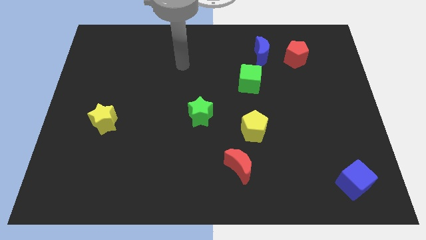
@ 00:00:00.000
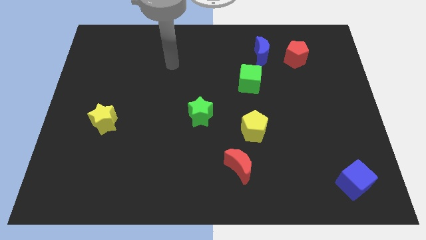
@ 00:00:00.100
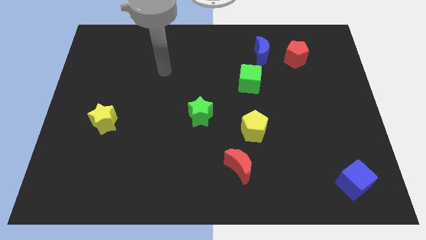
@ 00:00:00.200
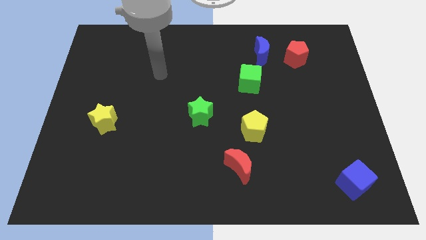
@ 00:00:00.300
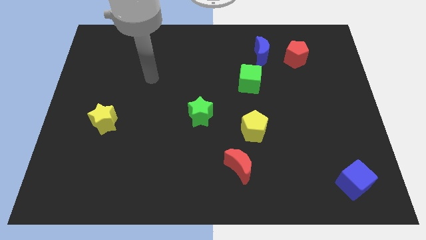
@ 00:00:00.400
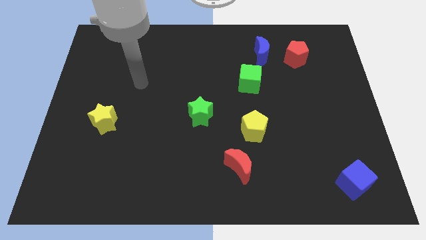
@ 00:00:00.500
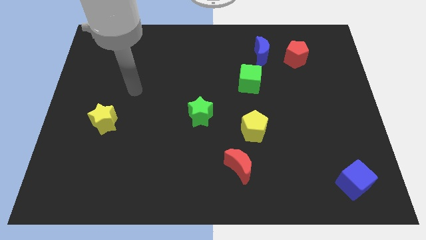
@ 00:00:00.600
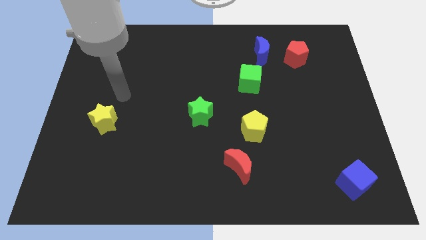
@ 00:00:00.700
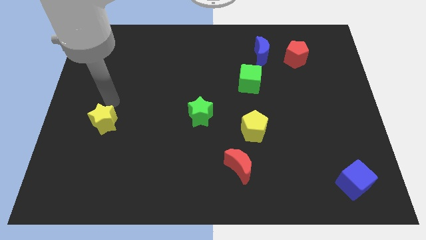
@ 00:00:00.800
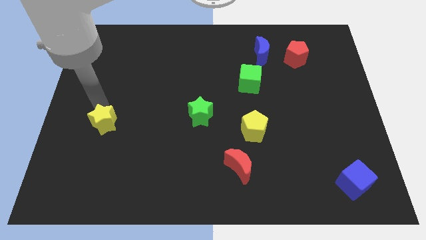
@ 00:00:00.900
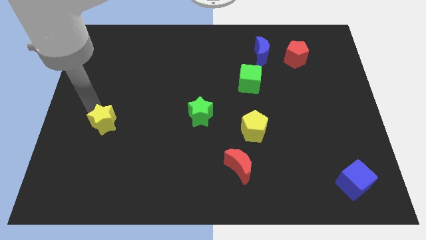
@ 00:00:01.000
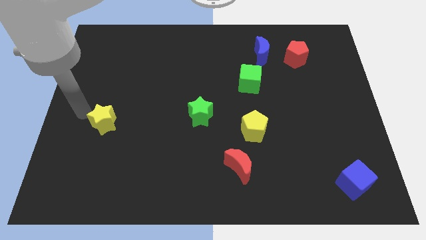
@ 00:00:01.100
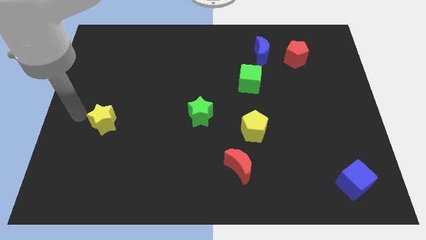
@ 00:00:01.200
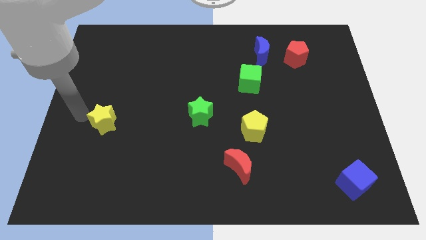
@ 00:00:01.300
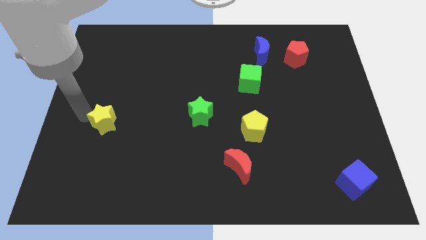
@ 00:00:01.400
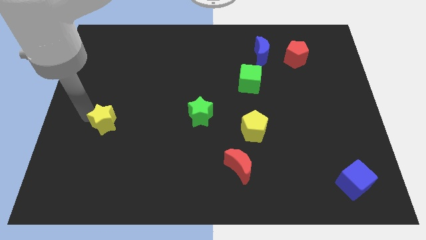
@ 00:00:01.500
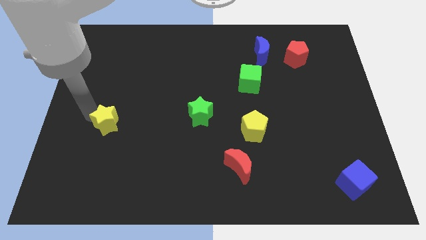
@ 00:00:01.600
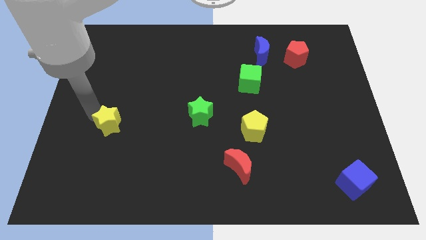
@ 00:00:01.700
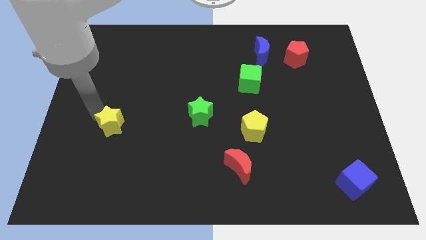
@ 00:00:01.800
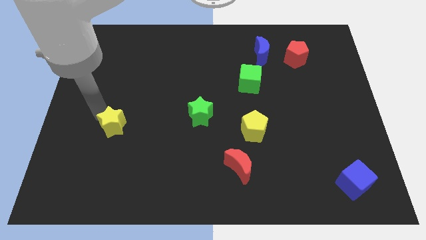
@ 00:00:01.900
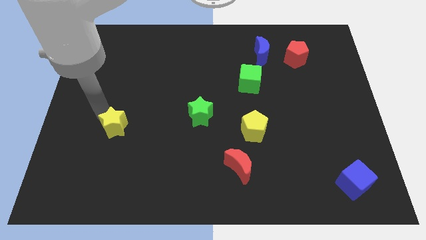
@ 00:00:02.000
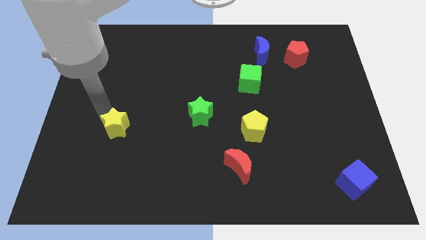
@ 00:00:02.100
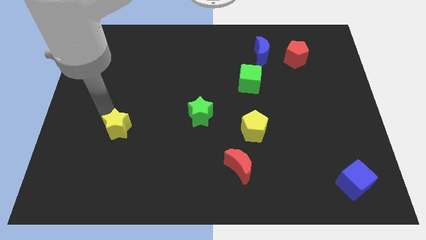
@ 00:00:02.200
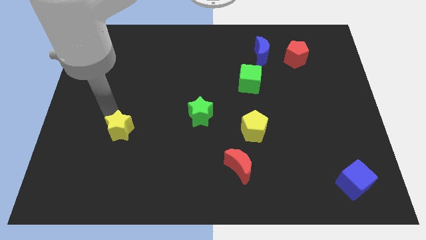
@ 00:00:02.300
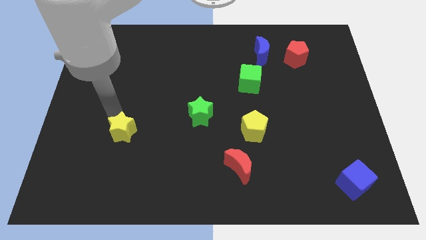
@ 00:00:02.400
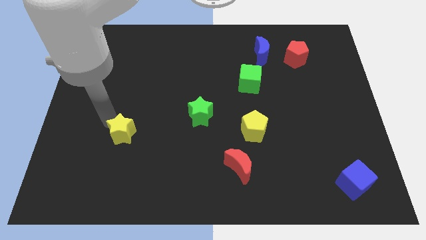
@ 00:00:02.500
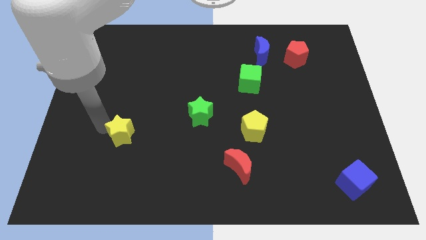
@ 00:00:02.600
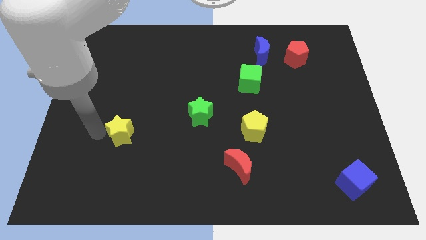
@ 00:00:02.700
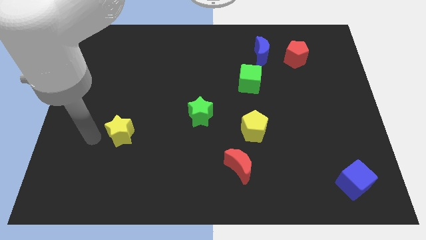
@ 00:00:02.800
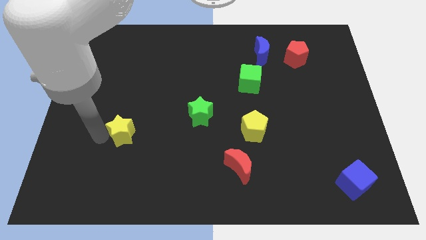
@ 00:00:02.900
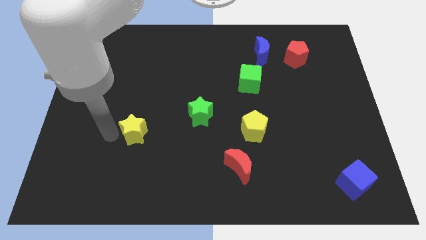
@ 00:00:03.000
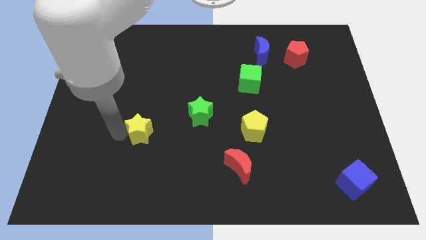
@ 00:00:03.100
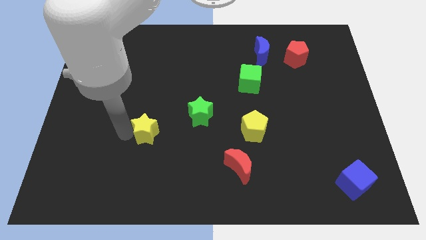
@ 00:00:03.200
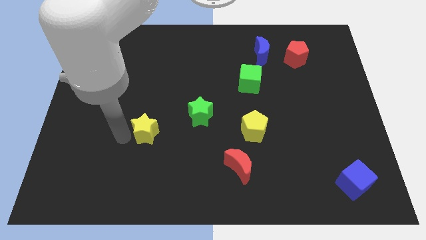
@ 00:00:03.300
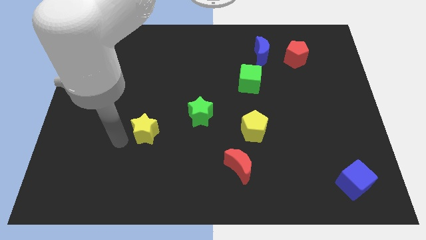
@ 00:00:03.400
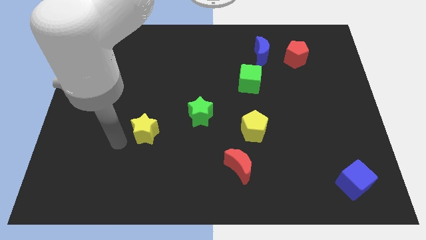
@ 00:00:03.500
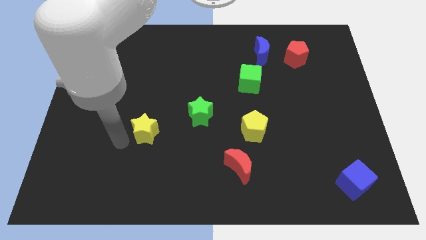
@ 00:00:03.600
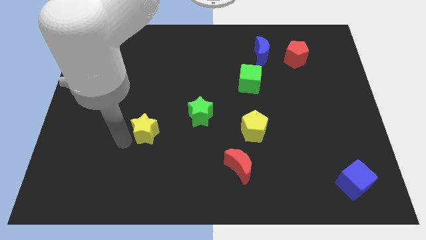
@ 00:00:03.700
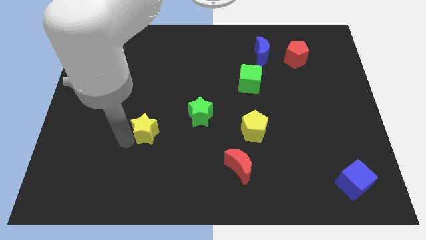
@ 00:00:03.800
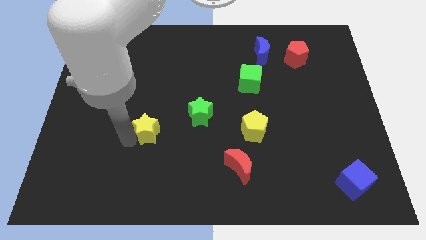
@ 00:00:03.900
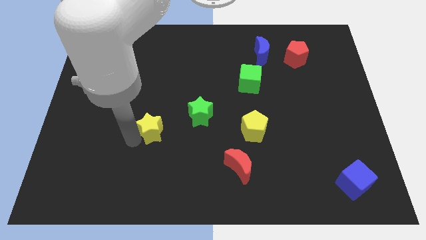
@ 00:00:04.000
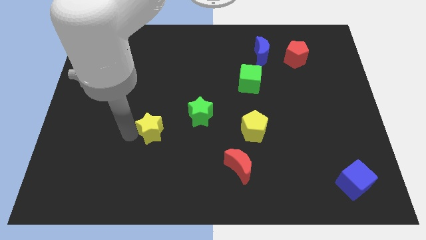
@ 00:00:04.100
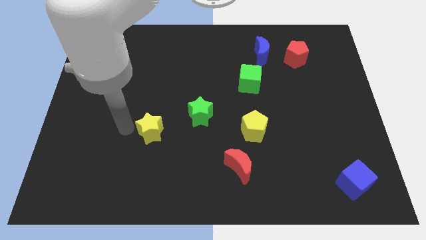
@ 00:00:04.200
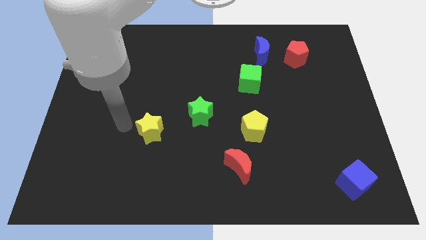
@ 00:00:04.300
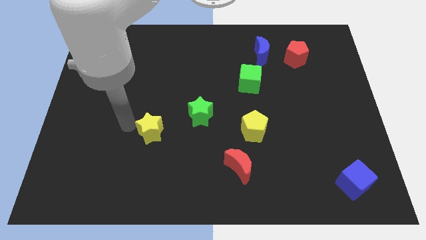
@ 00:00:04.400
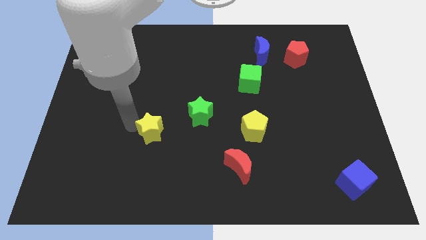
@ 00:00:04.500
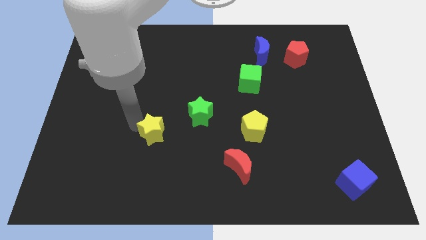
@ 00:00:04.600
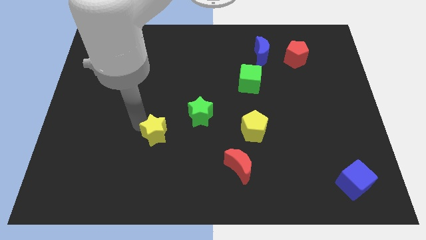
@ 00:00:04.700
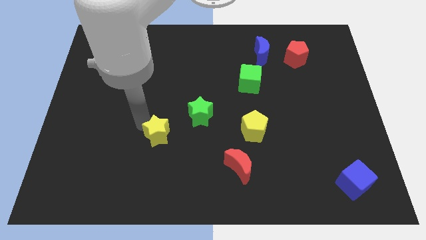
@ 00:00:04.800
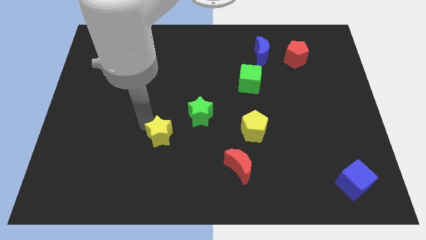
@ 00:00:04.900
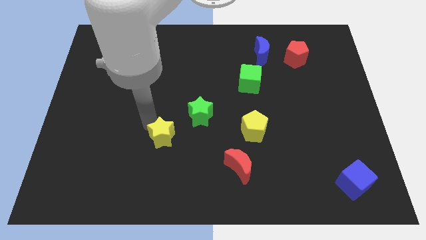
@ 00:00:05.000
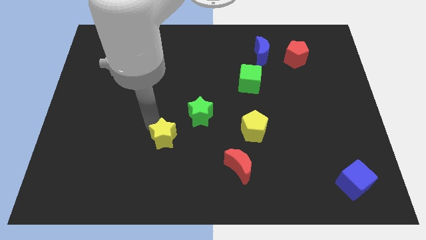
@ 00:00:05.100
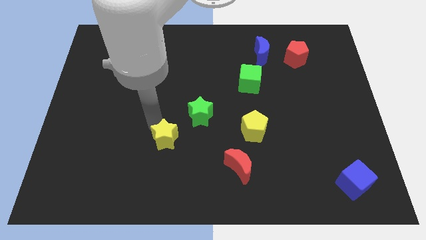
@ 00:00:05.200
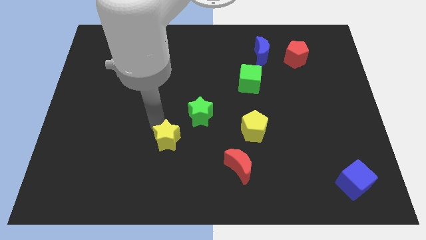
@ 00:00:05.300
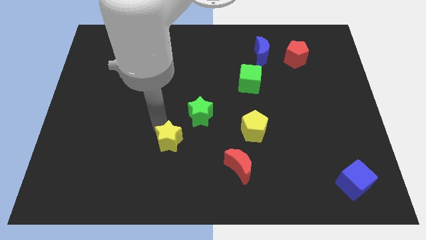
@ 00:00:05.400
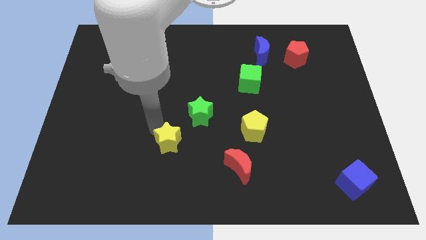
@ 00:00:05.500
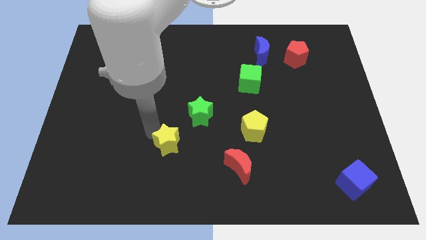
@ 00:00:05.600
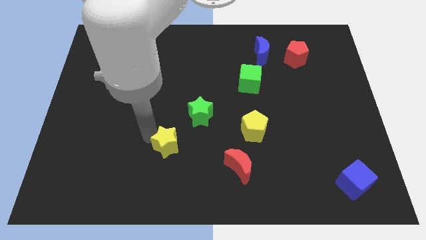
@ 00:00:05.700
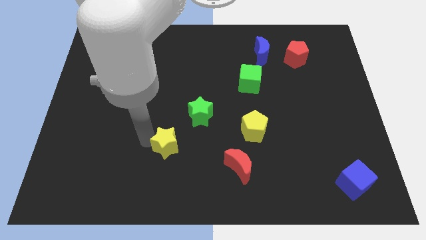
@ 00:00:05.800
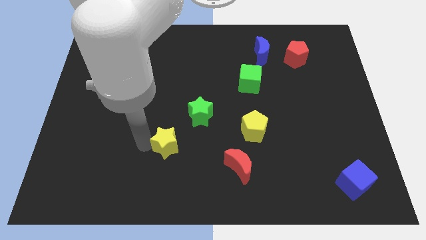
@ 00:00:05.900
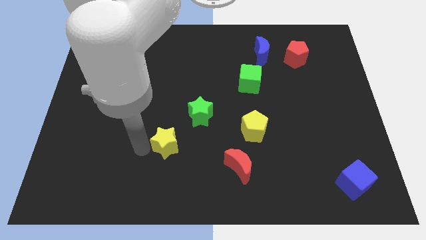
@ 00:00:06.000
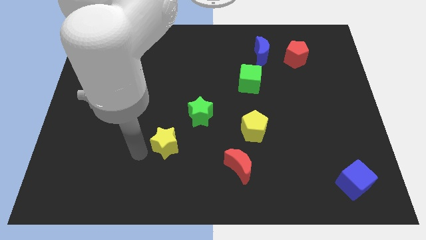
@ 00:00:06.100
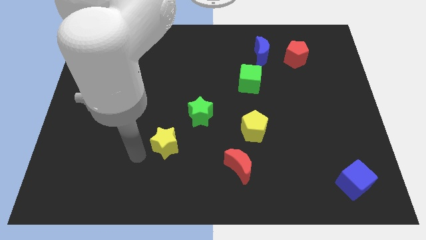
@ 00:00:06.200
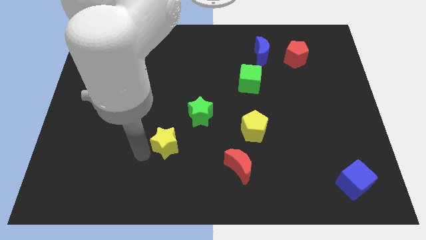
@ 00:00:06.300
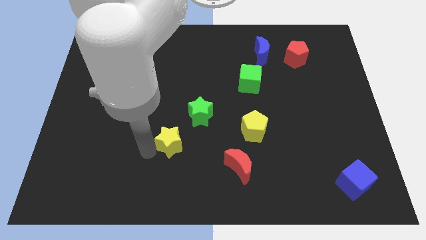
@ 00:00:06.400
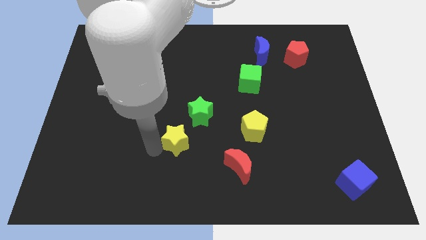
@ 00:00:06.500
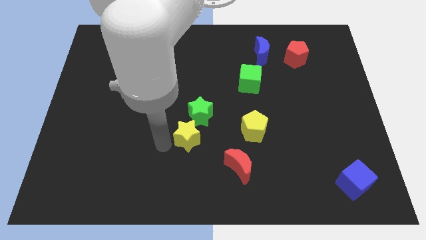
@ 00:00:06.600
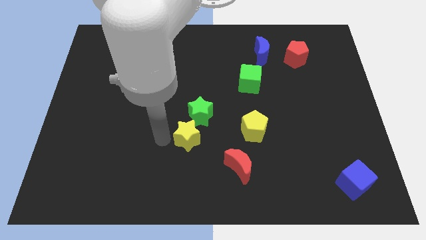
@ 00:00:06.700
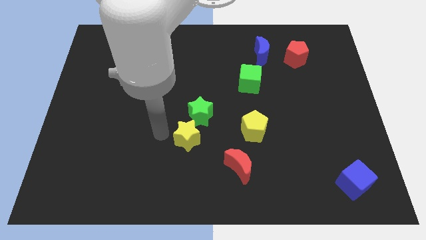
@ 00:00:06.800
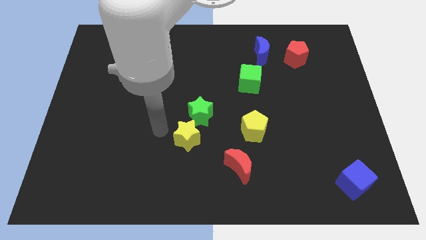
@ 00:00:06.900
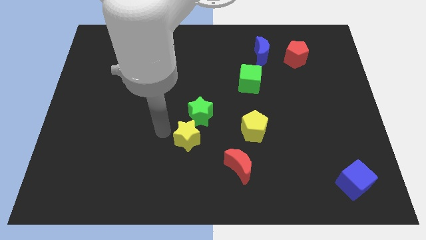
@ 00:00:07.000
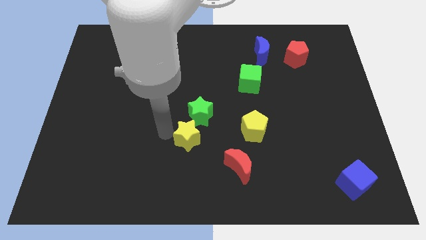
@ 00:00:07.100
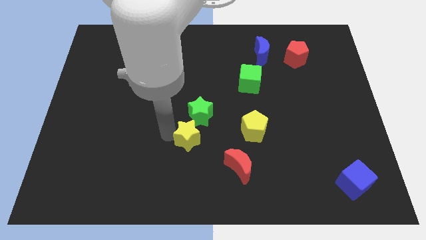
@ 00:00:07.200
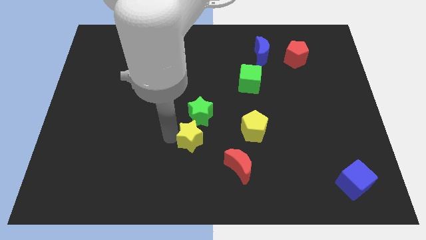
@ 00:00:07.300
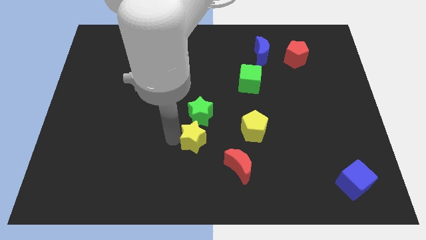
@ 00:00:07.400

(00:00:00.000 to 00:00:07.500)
push the yellow star to the top left of the red moon
